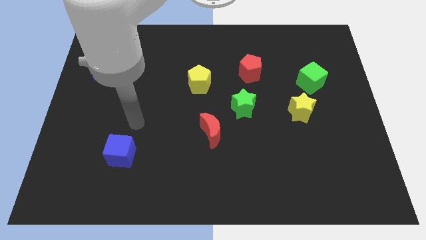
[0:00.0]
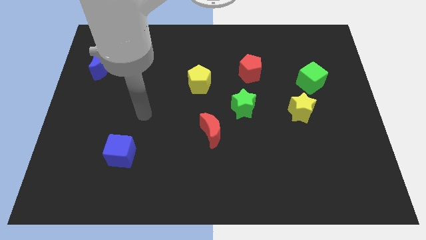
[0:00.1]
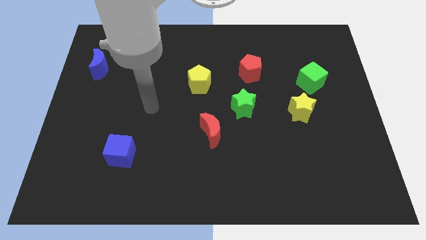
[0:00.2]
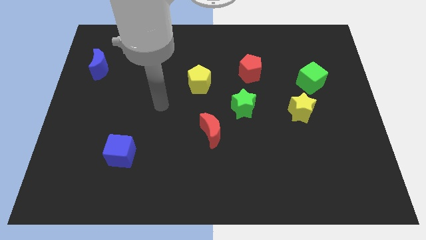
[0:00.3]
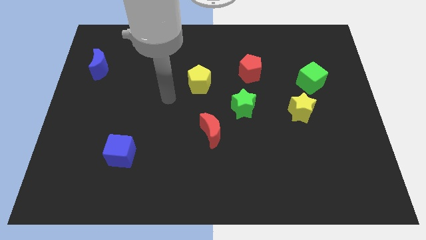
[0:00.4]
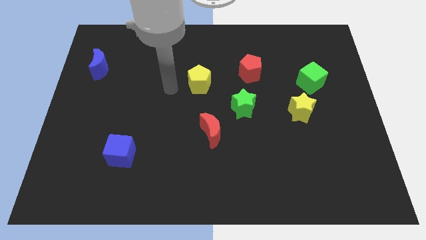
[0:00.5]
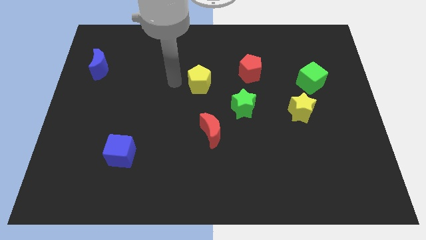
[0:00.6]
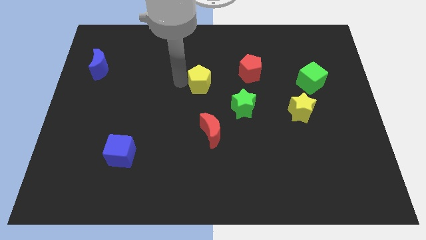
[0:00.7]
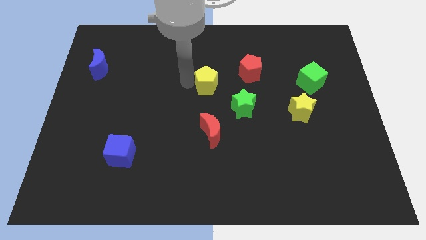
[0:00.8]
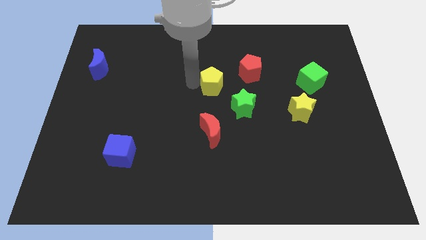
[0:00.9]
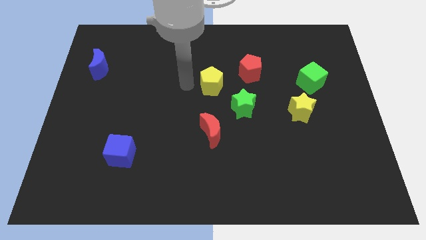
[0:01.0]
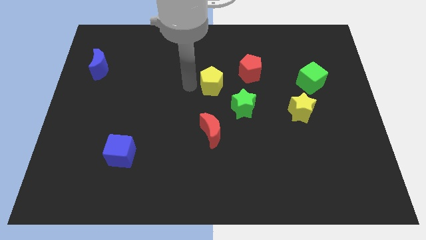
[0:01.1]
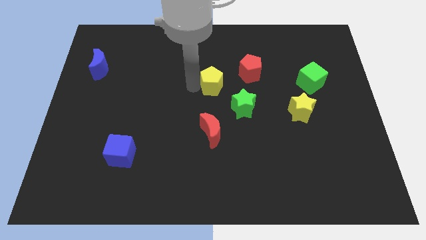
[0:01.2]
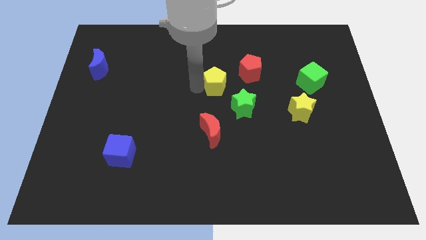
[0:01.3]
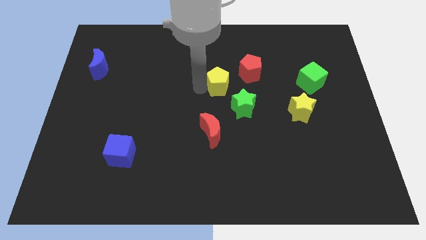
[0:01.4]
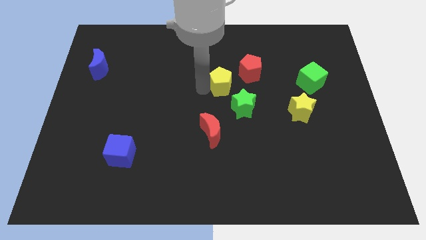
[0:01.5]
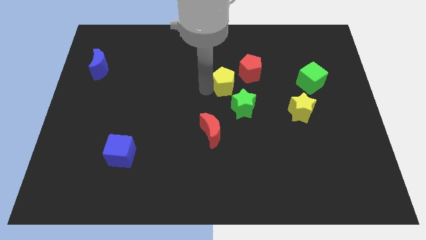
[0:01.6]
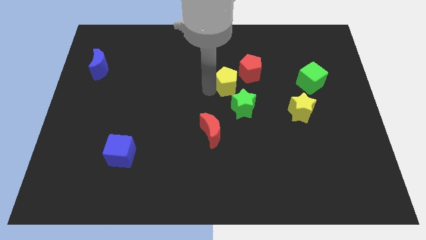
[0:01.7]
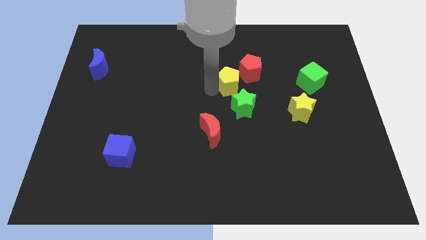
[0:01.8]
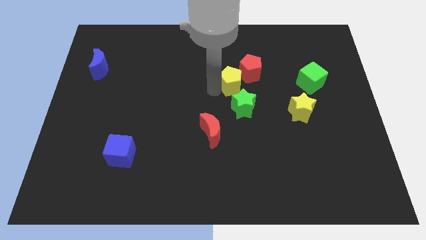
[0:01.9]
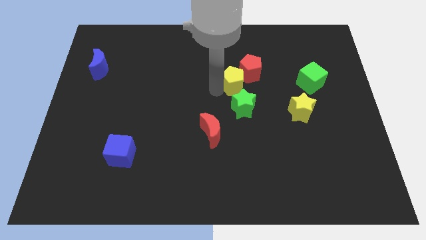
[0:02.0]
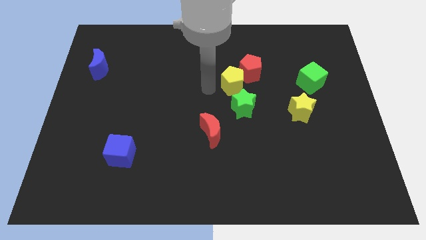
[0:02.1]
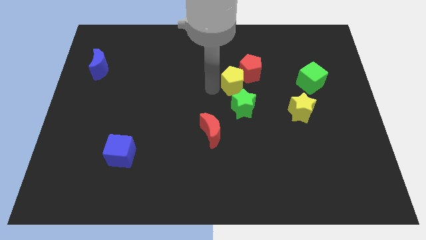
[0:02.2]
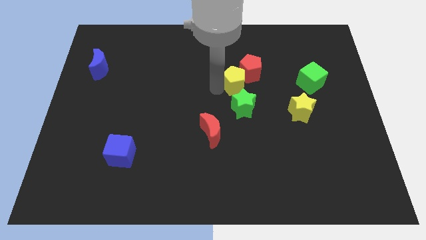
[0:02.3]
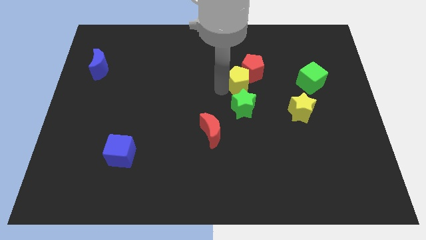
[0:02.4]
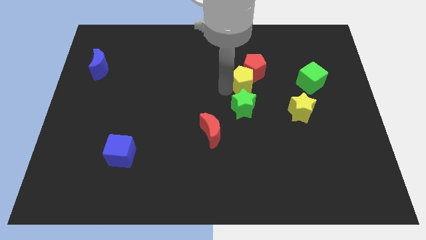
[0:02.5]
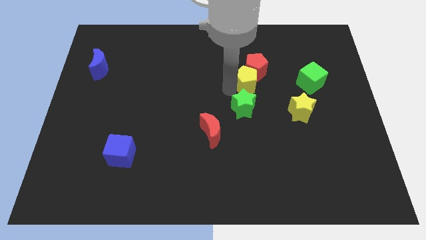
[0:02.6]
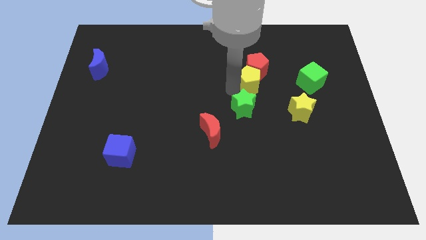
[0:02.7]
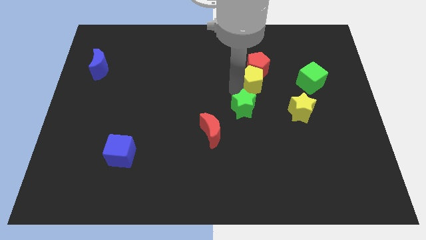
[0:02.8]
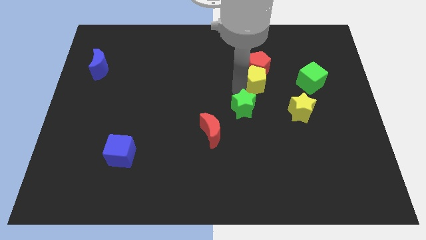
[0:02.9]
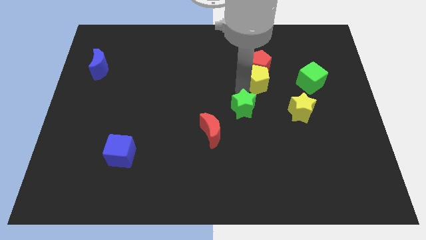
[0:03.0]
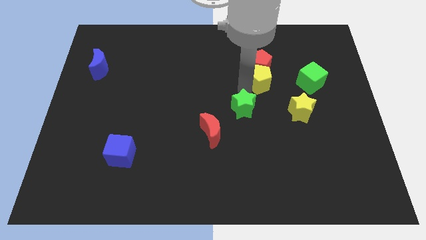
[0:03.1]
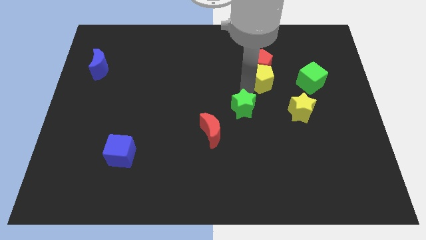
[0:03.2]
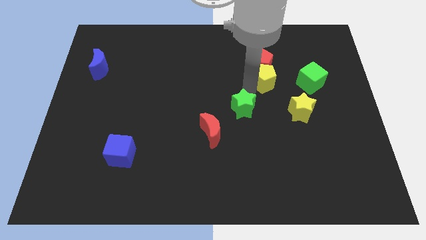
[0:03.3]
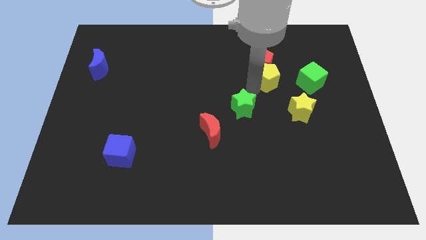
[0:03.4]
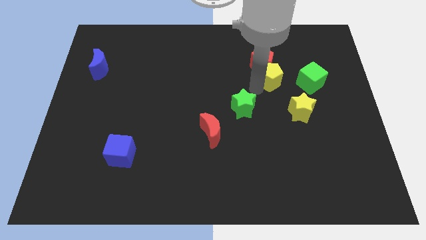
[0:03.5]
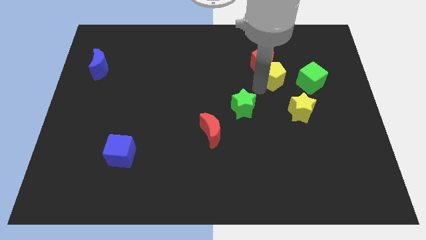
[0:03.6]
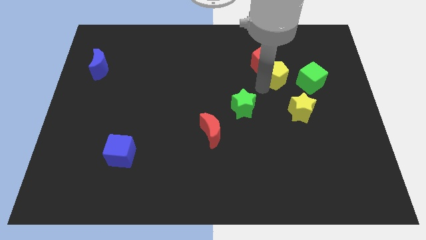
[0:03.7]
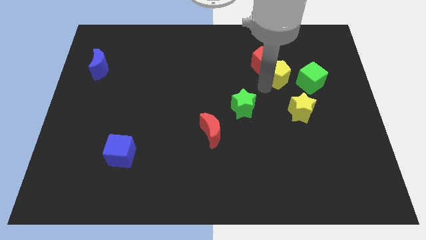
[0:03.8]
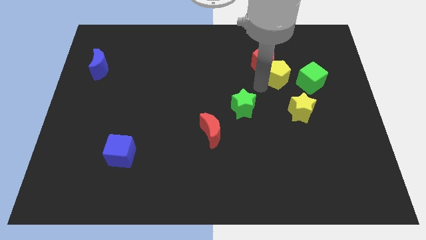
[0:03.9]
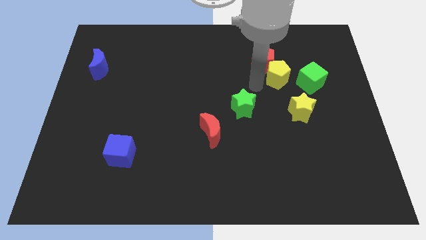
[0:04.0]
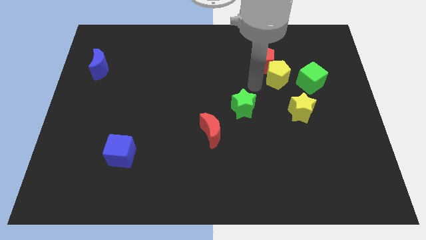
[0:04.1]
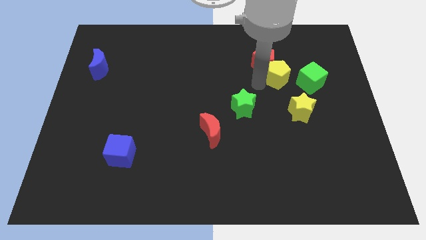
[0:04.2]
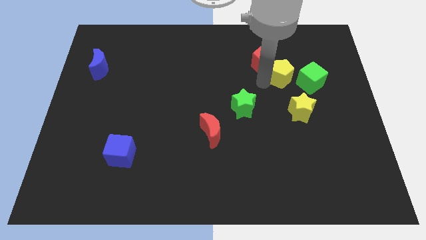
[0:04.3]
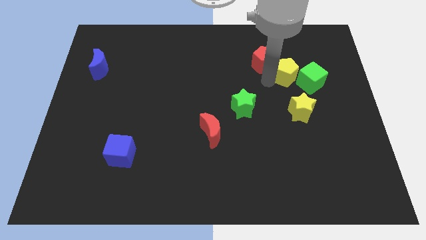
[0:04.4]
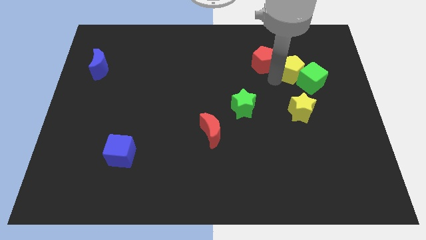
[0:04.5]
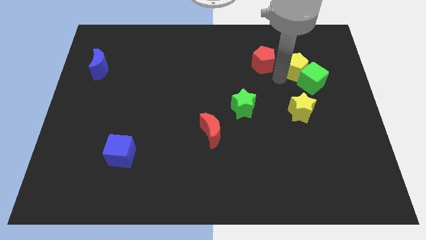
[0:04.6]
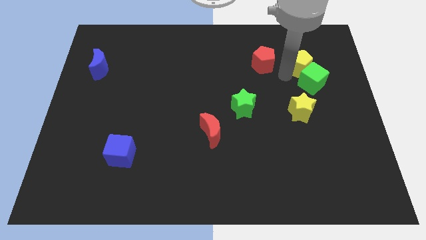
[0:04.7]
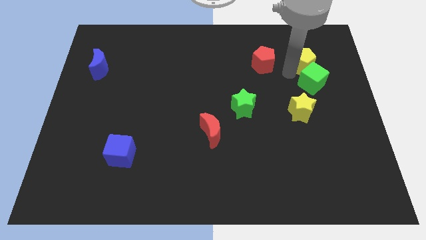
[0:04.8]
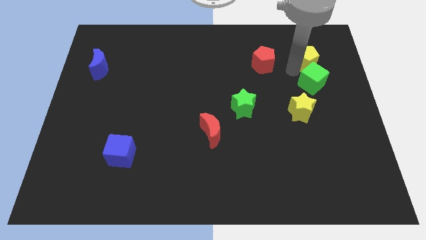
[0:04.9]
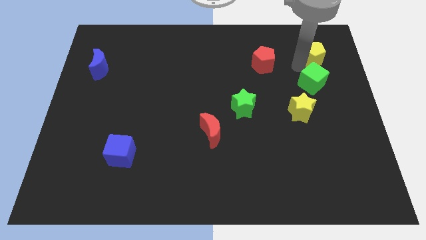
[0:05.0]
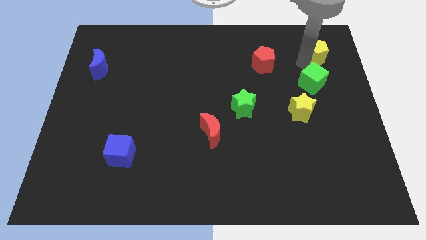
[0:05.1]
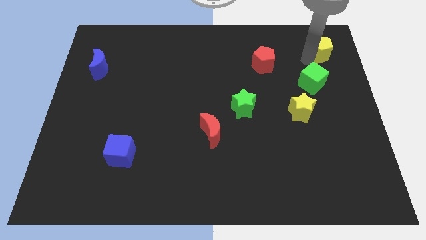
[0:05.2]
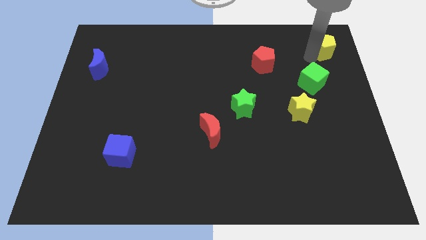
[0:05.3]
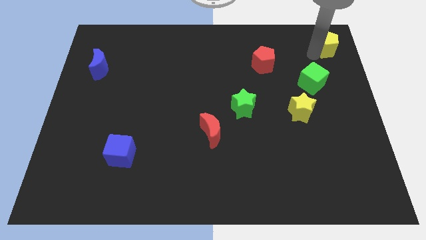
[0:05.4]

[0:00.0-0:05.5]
move the yellow pentagon to the top right of the board

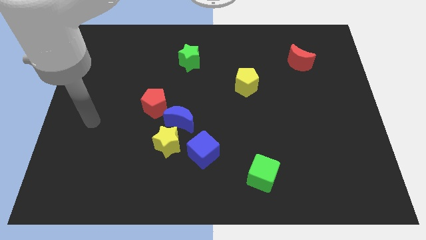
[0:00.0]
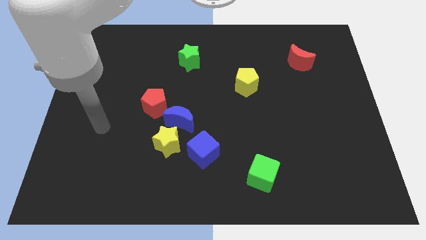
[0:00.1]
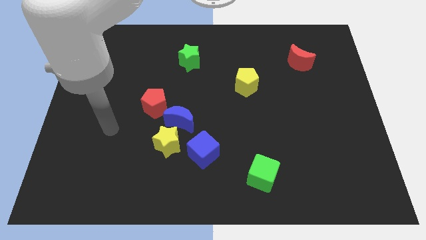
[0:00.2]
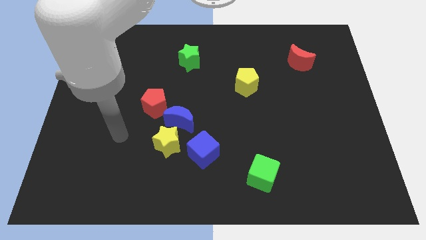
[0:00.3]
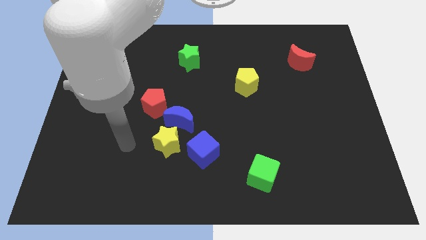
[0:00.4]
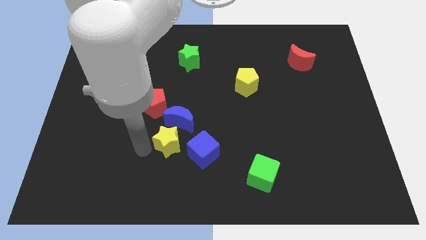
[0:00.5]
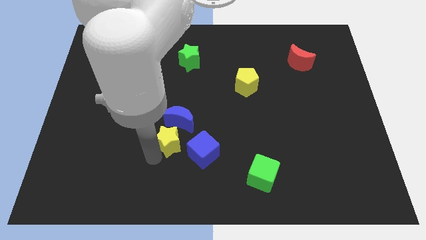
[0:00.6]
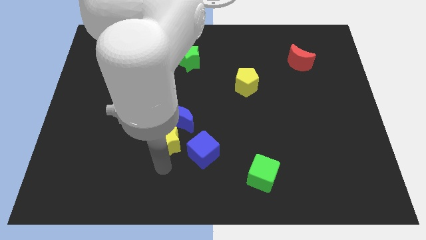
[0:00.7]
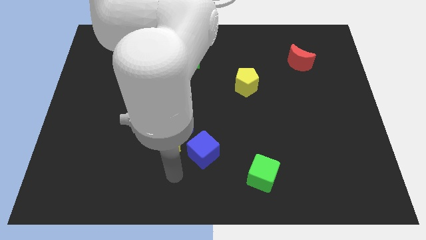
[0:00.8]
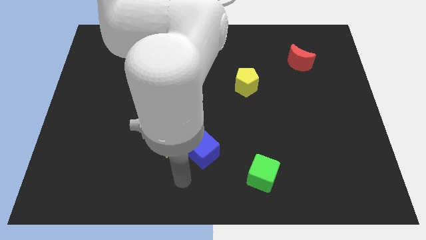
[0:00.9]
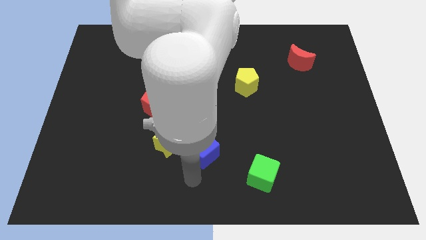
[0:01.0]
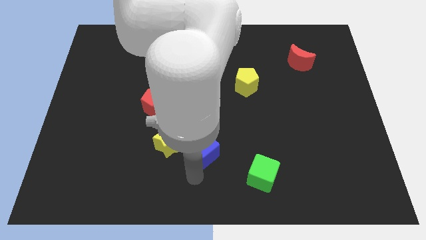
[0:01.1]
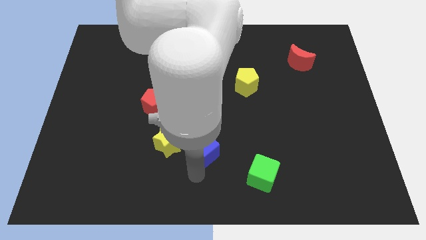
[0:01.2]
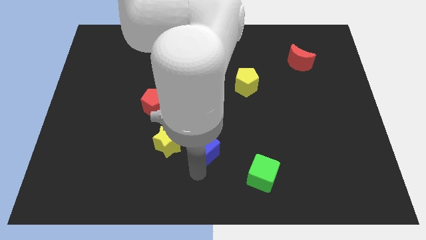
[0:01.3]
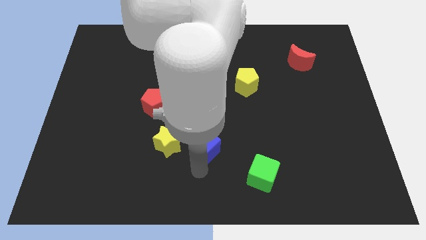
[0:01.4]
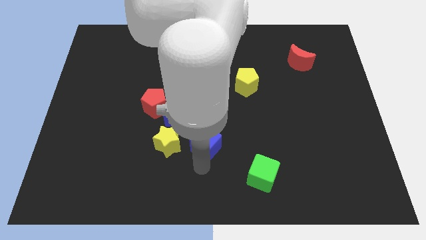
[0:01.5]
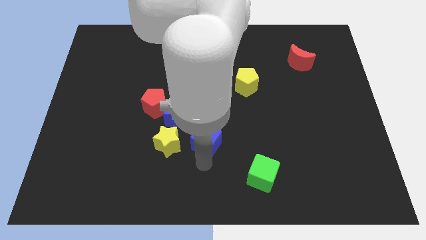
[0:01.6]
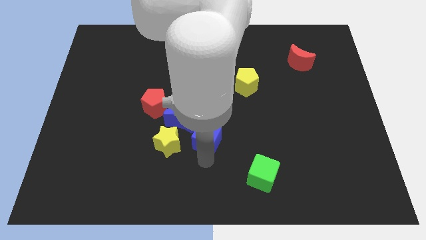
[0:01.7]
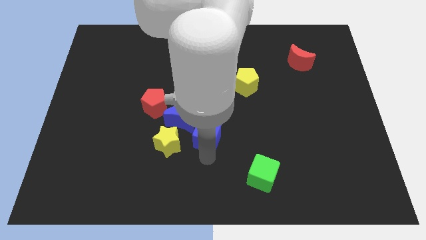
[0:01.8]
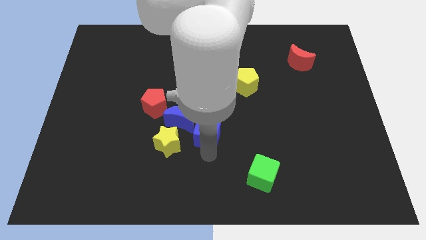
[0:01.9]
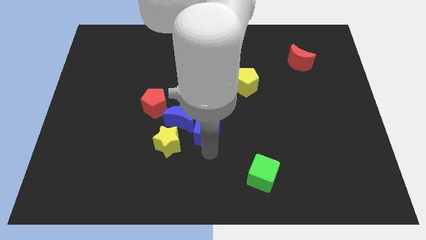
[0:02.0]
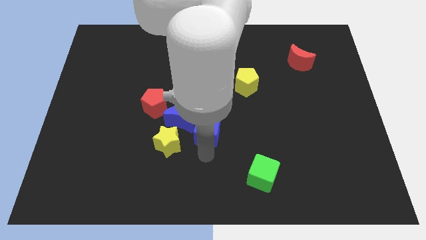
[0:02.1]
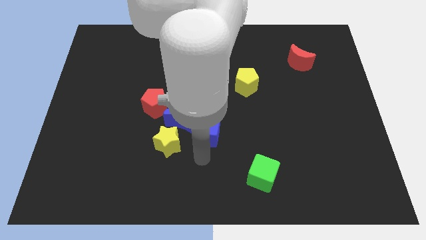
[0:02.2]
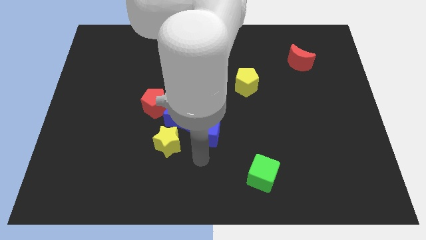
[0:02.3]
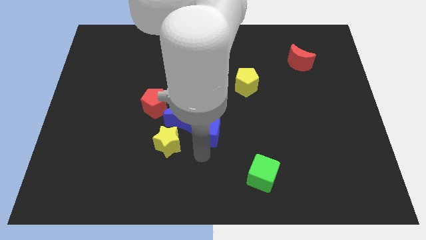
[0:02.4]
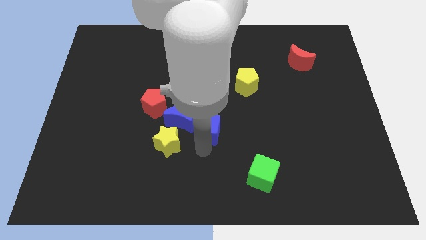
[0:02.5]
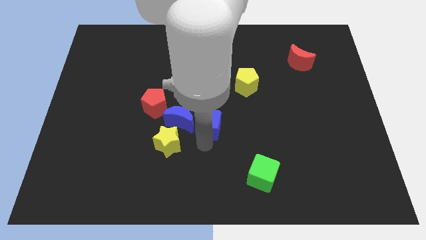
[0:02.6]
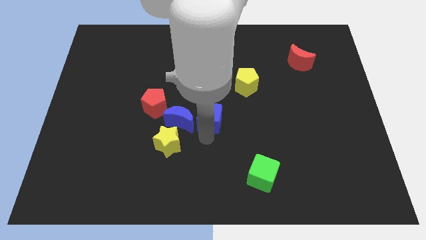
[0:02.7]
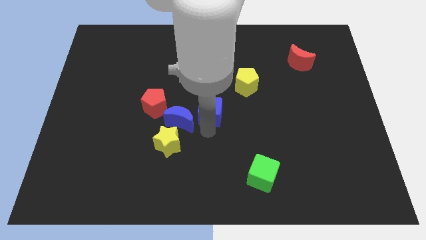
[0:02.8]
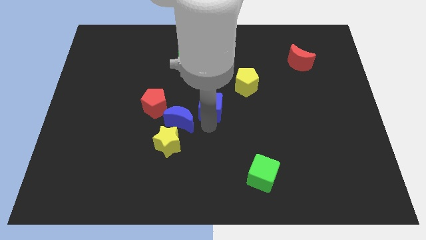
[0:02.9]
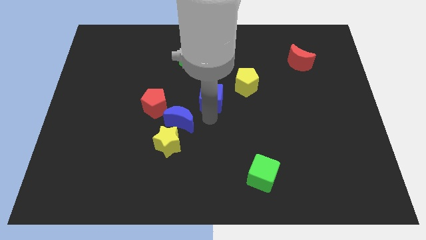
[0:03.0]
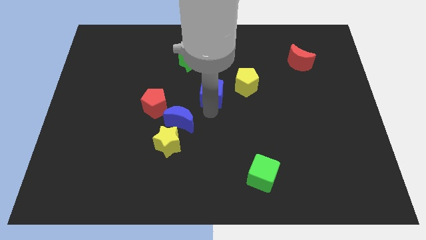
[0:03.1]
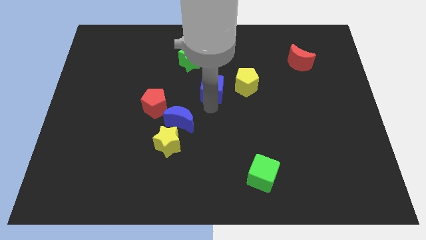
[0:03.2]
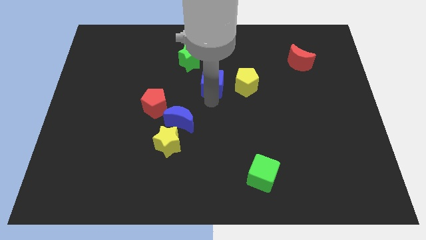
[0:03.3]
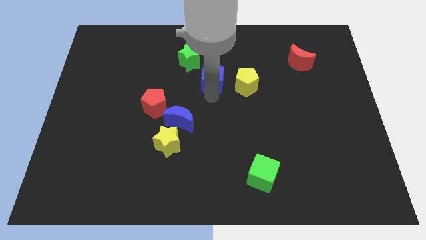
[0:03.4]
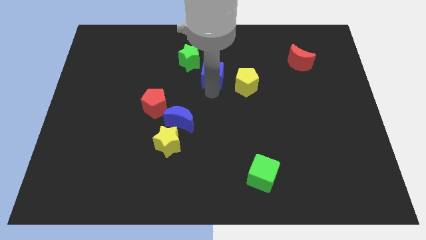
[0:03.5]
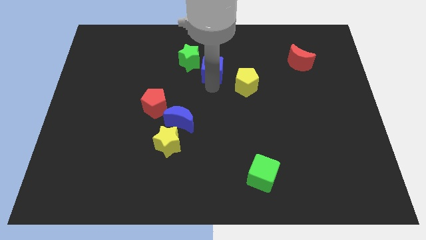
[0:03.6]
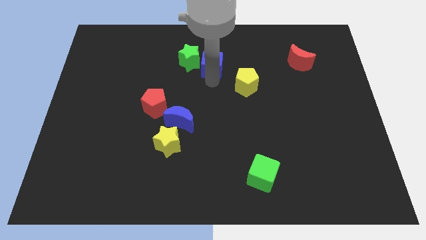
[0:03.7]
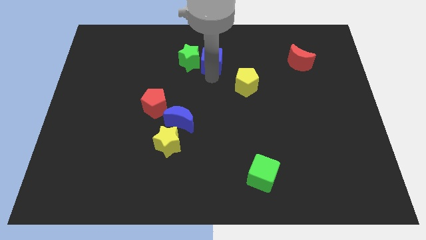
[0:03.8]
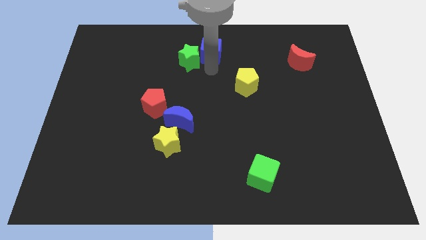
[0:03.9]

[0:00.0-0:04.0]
put the blue cube to the top side
